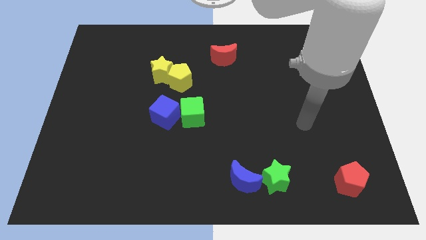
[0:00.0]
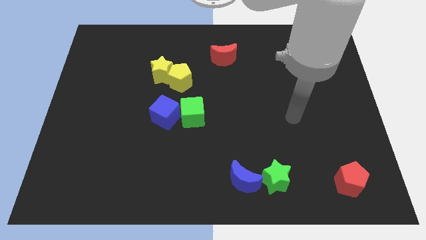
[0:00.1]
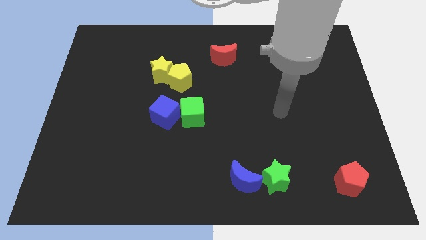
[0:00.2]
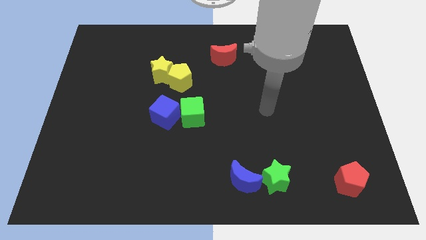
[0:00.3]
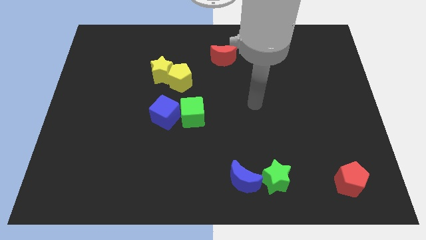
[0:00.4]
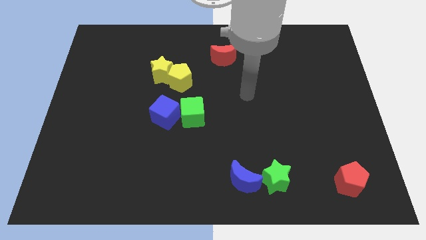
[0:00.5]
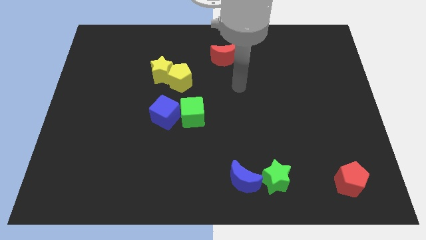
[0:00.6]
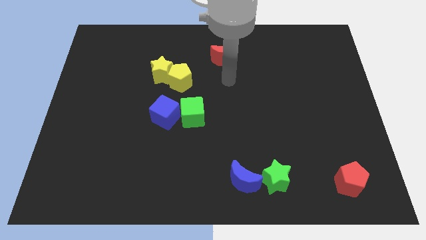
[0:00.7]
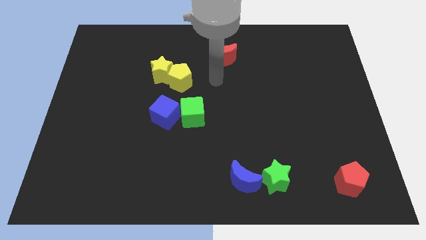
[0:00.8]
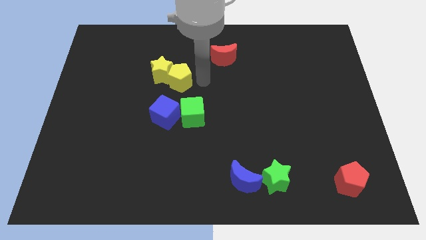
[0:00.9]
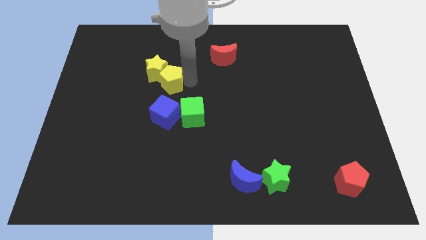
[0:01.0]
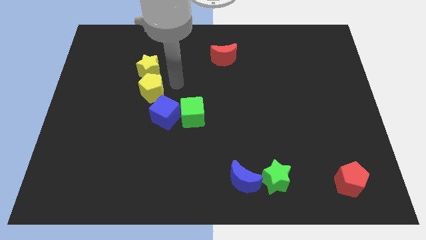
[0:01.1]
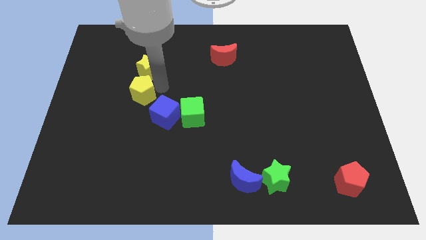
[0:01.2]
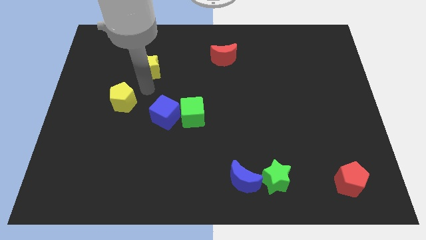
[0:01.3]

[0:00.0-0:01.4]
move the yellow star away from the yellow pentagon

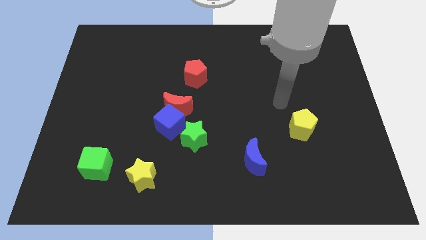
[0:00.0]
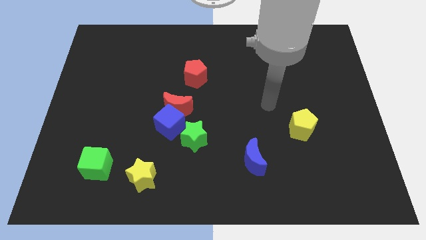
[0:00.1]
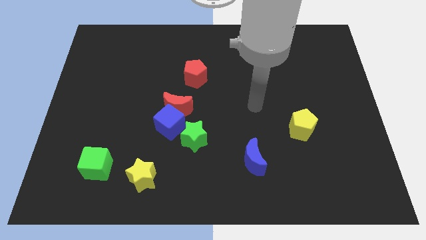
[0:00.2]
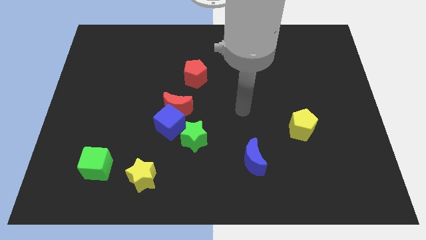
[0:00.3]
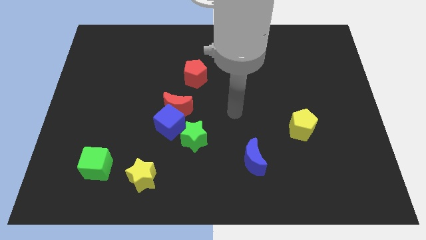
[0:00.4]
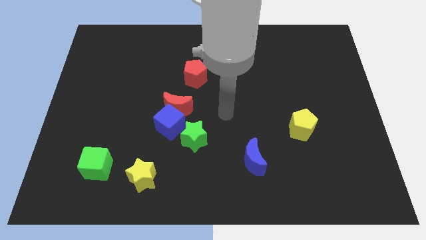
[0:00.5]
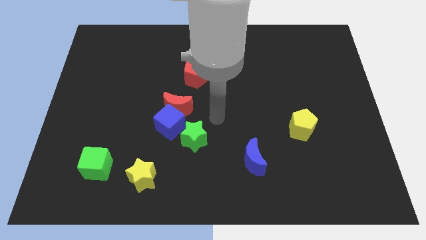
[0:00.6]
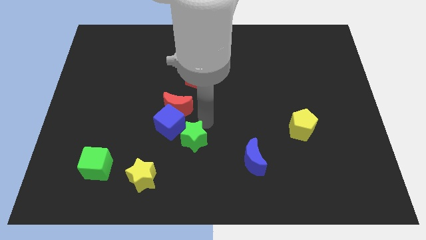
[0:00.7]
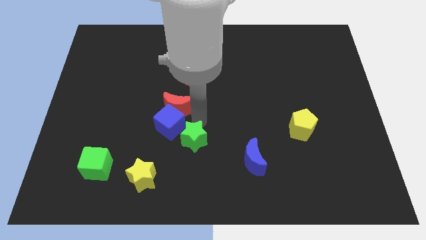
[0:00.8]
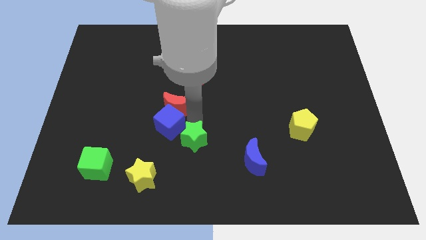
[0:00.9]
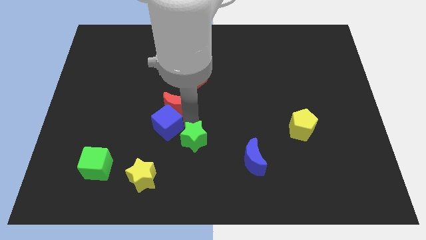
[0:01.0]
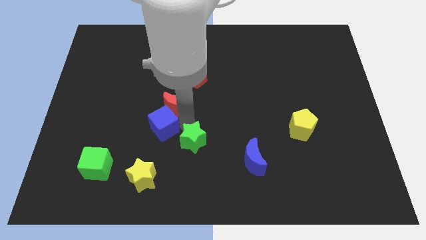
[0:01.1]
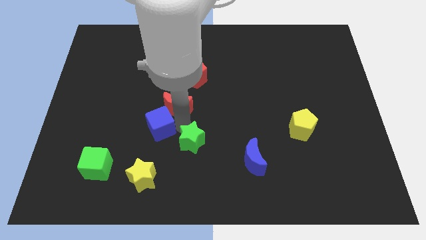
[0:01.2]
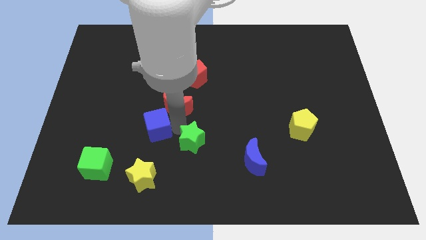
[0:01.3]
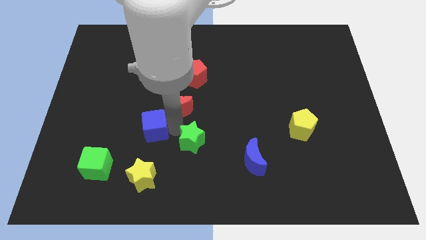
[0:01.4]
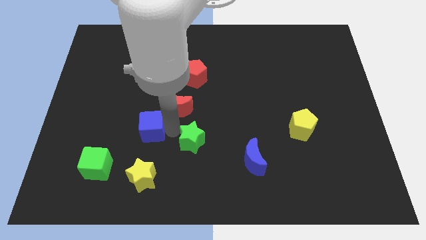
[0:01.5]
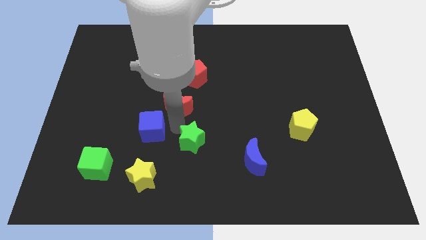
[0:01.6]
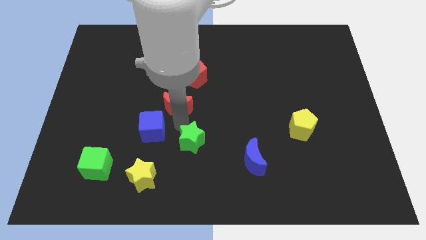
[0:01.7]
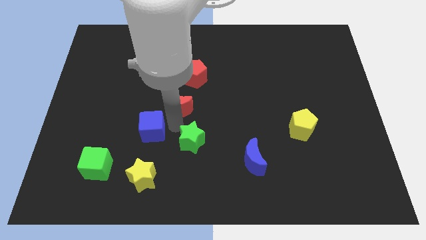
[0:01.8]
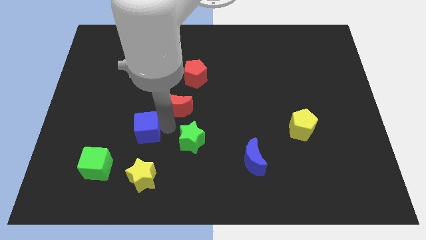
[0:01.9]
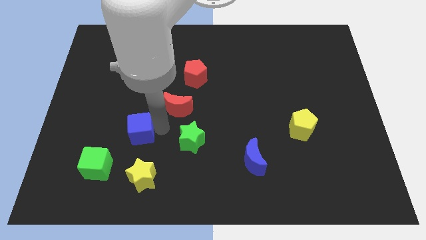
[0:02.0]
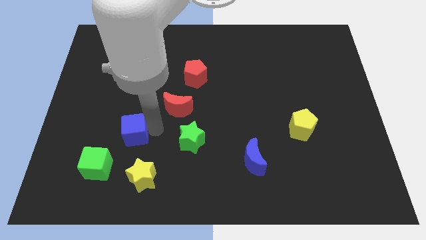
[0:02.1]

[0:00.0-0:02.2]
pull the blue cube apart from the red moon and green star

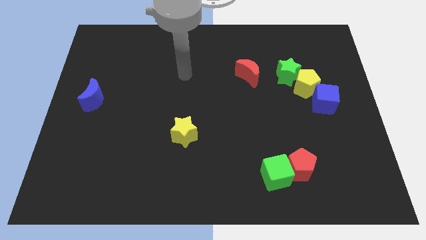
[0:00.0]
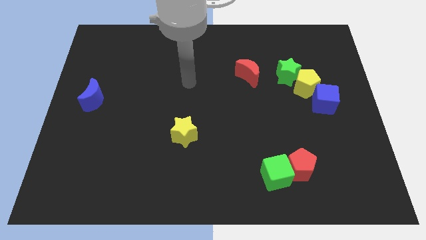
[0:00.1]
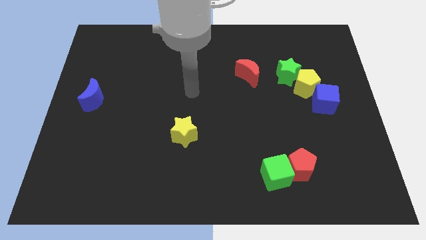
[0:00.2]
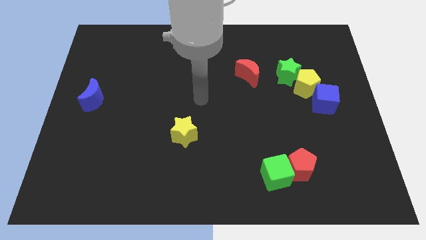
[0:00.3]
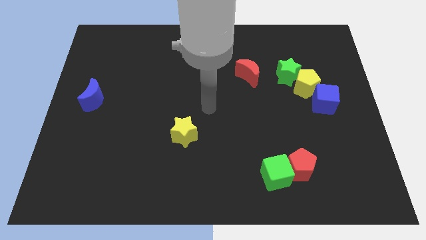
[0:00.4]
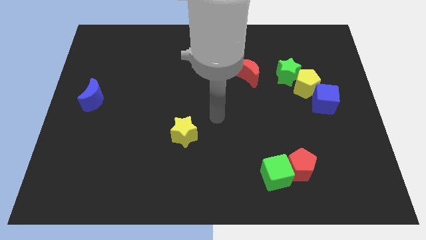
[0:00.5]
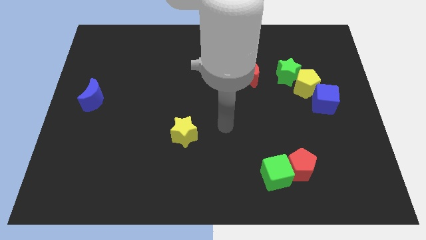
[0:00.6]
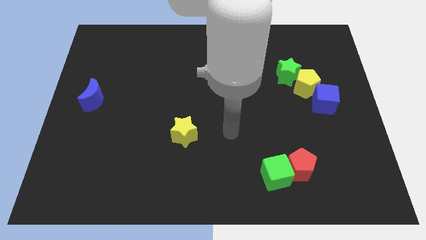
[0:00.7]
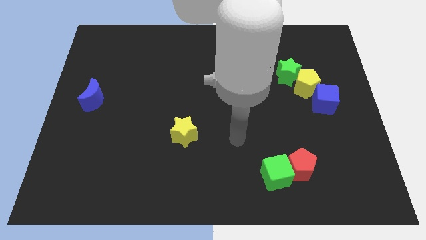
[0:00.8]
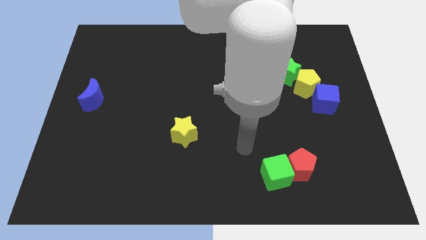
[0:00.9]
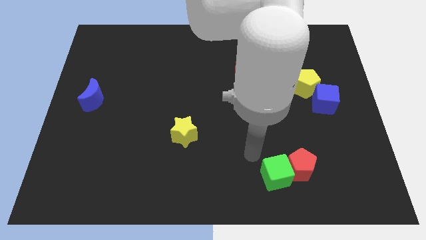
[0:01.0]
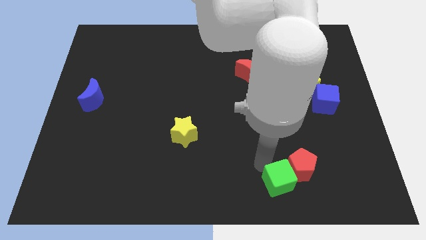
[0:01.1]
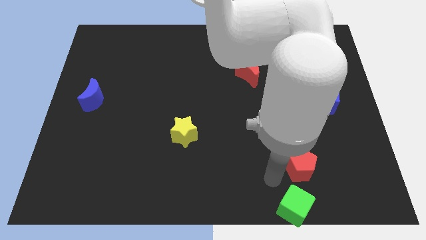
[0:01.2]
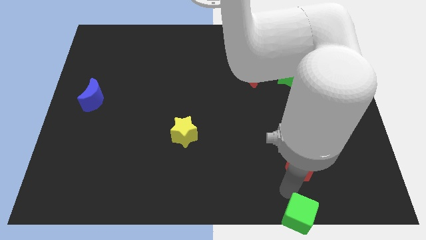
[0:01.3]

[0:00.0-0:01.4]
move the red pentagon away from the green cube

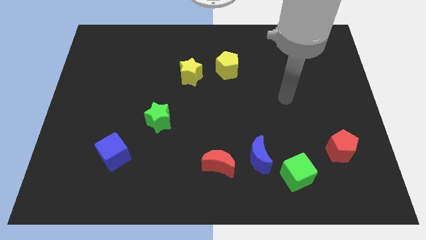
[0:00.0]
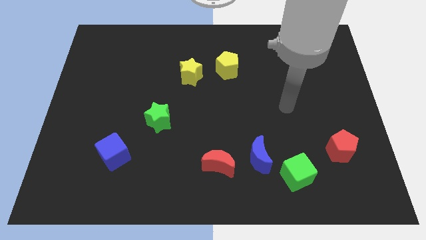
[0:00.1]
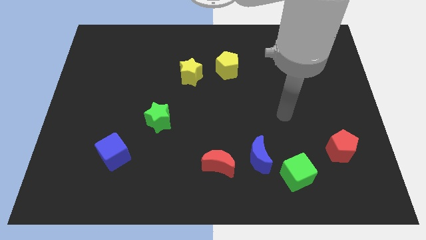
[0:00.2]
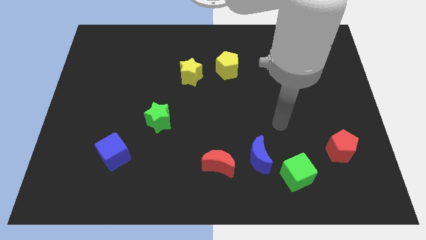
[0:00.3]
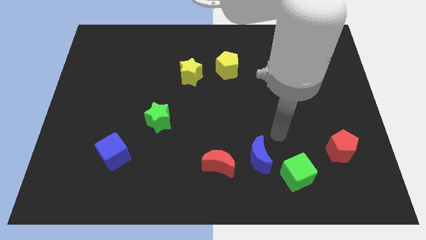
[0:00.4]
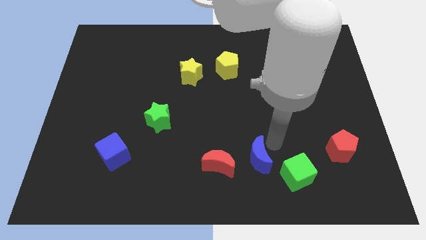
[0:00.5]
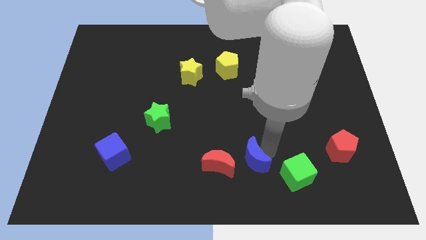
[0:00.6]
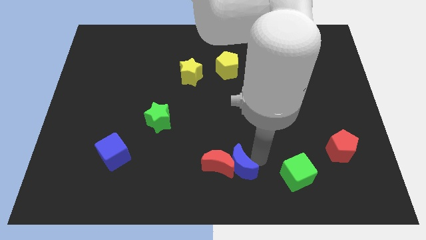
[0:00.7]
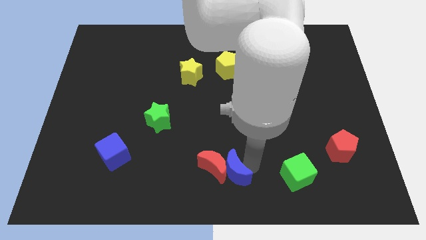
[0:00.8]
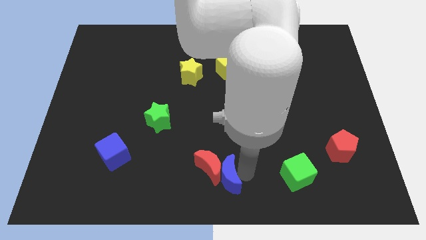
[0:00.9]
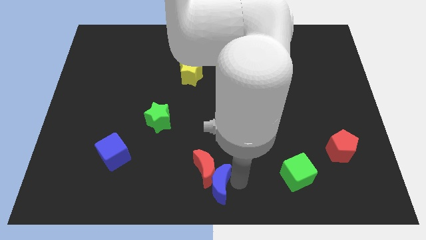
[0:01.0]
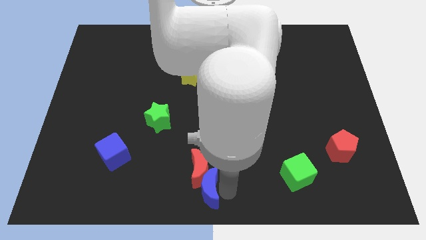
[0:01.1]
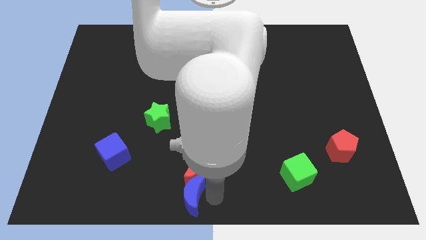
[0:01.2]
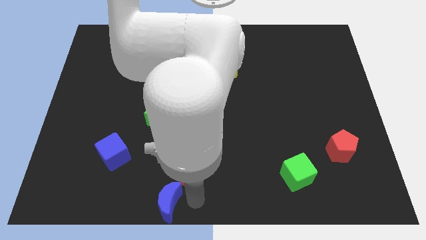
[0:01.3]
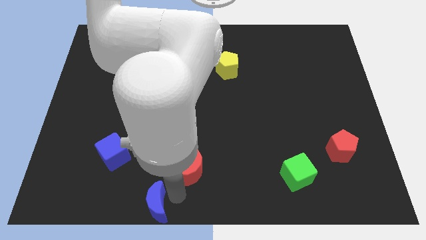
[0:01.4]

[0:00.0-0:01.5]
separate the red moon from the blue moon

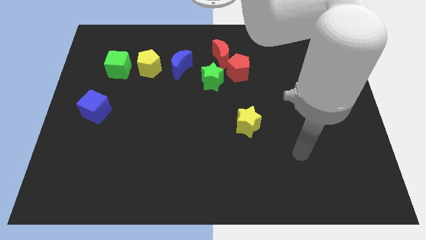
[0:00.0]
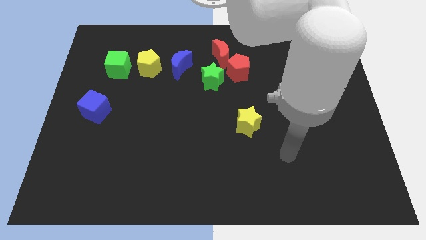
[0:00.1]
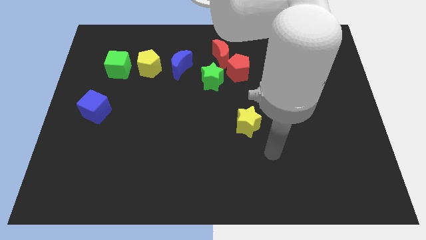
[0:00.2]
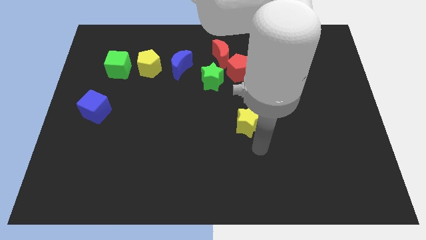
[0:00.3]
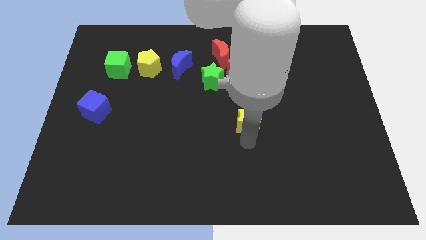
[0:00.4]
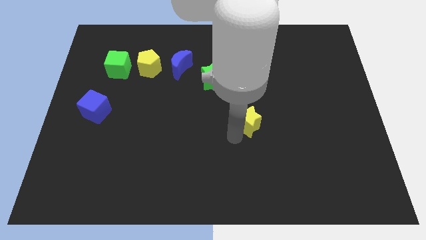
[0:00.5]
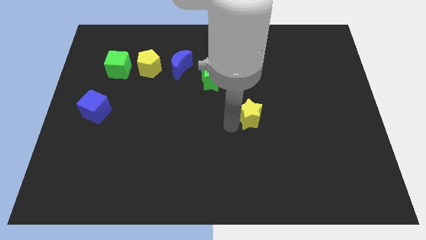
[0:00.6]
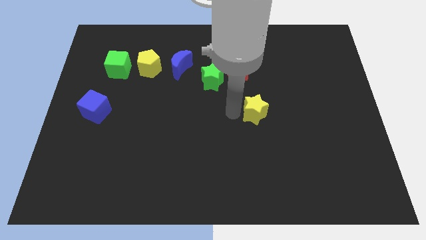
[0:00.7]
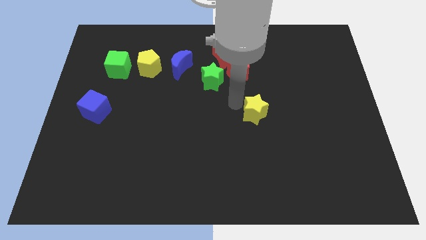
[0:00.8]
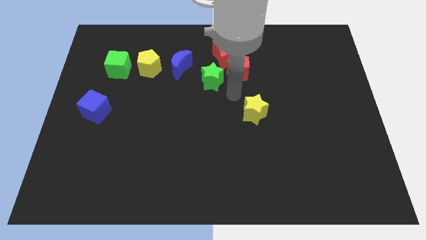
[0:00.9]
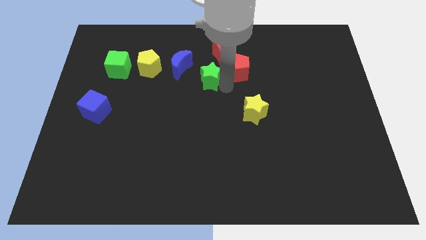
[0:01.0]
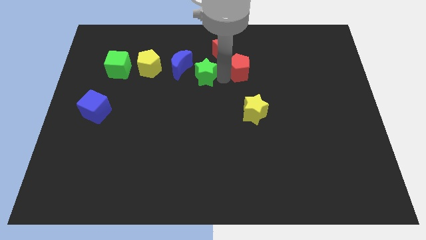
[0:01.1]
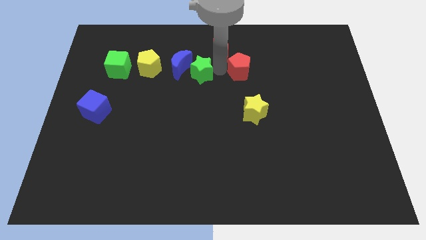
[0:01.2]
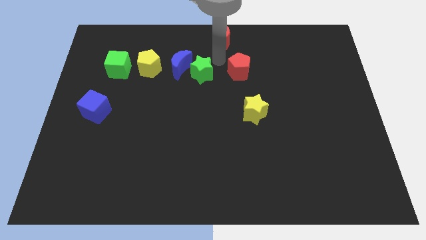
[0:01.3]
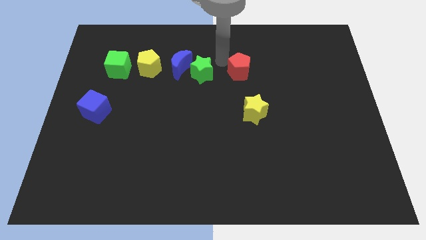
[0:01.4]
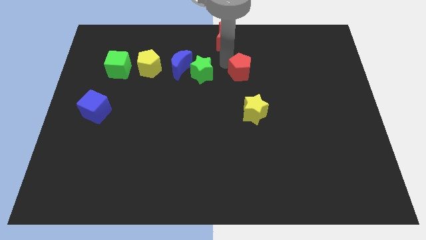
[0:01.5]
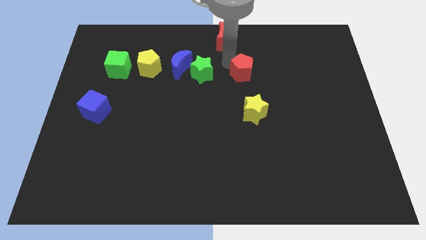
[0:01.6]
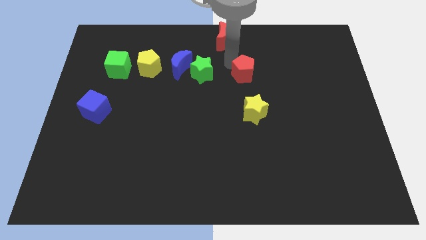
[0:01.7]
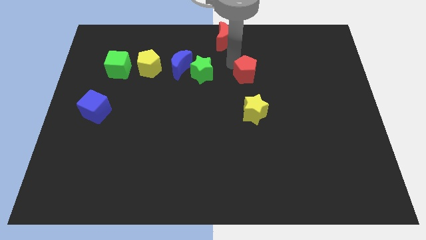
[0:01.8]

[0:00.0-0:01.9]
move the red pentagon away from the red moon and green star

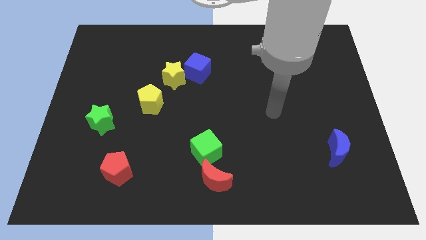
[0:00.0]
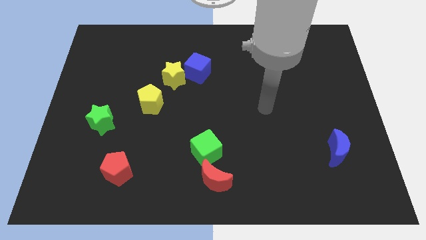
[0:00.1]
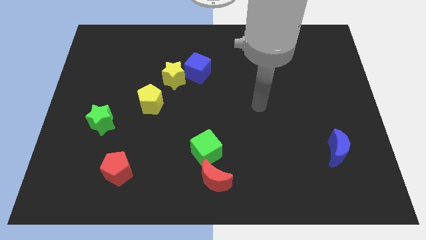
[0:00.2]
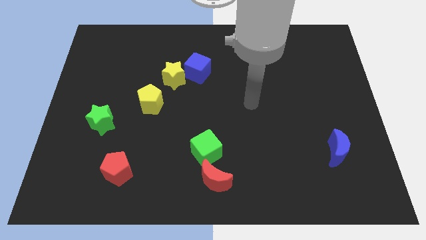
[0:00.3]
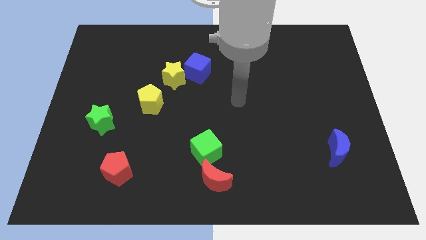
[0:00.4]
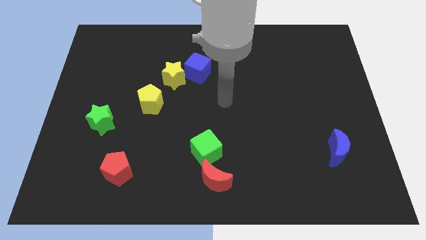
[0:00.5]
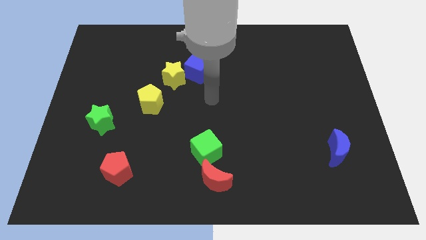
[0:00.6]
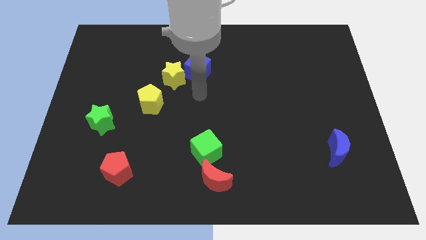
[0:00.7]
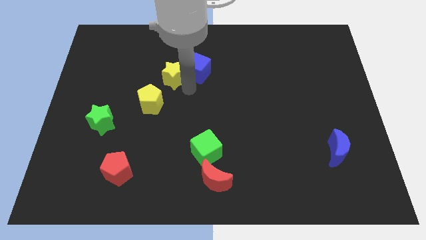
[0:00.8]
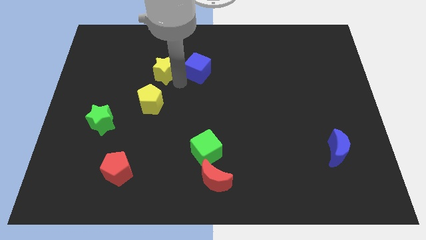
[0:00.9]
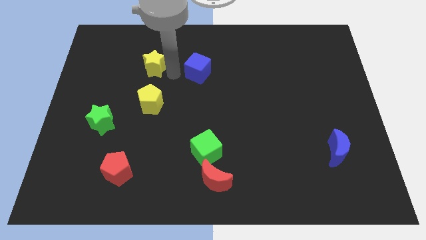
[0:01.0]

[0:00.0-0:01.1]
separate the blue cube from the yellow star
